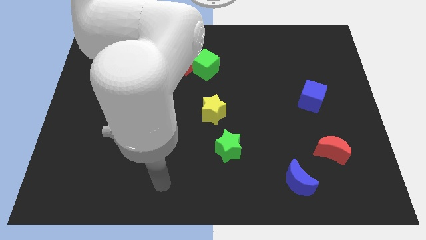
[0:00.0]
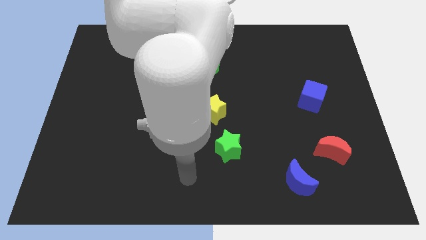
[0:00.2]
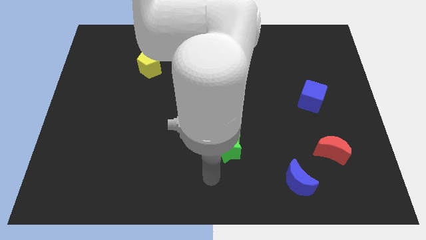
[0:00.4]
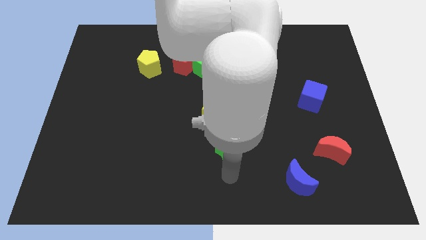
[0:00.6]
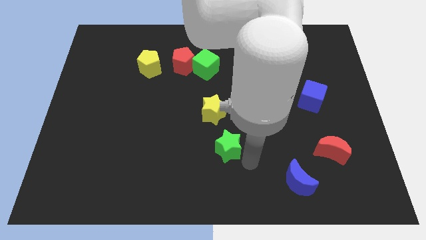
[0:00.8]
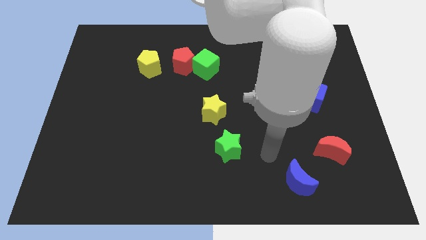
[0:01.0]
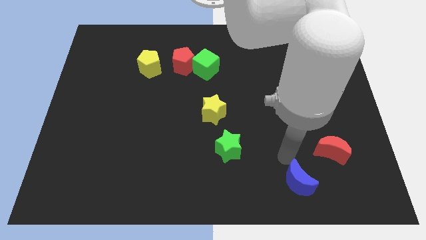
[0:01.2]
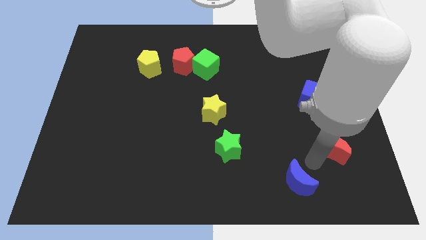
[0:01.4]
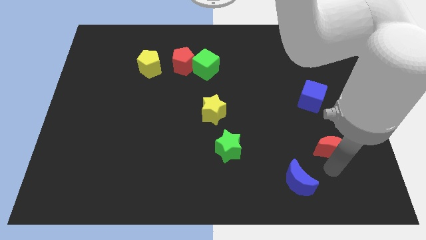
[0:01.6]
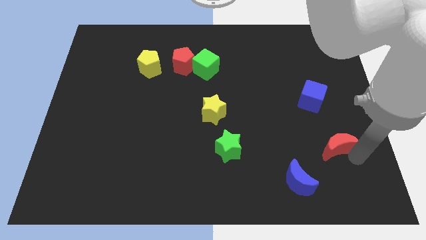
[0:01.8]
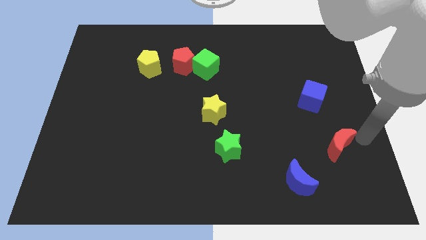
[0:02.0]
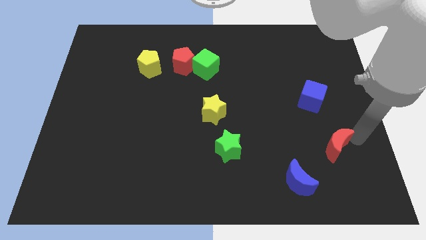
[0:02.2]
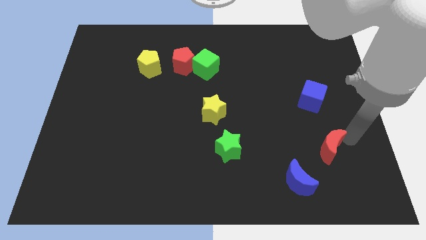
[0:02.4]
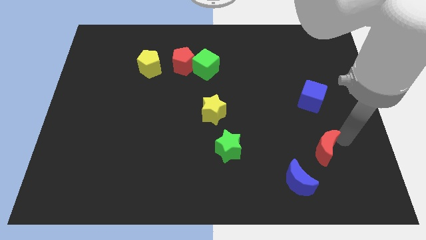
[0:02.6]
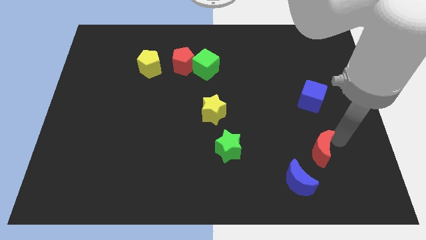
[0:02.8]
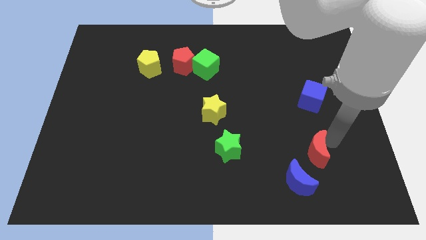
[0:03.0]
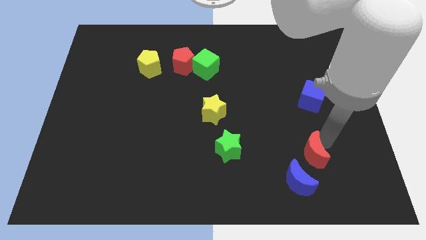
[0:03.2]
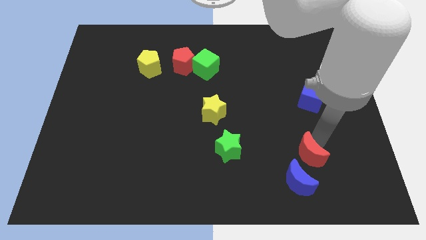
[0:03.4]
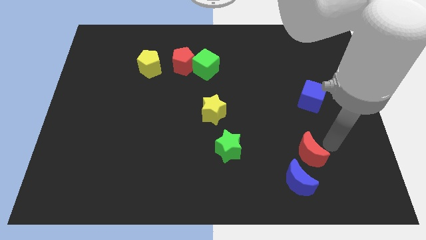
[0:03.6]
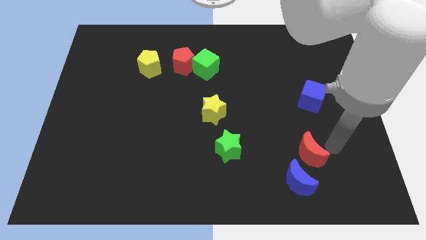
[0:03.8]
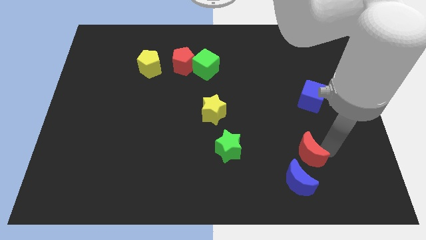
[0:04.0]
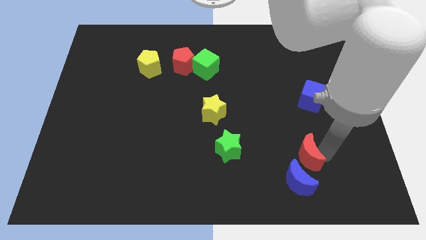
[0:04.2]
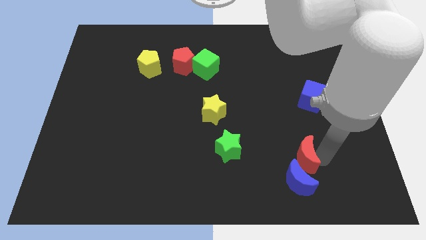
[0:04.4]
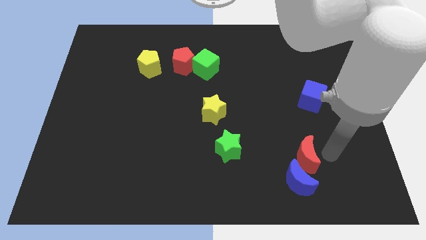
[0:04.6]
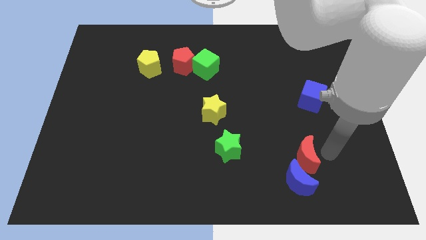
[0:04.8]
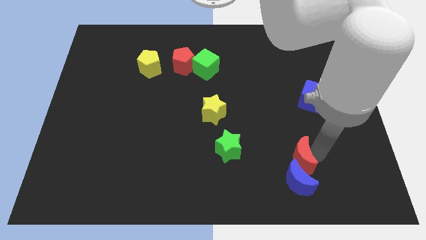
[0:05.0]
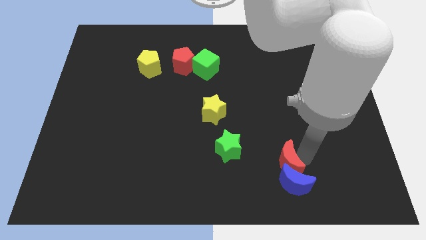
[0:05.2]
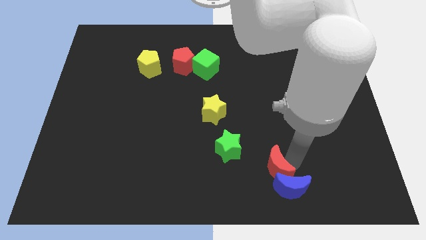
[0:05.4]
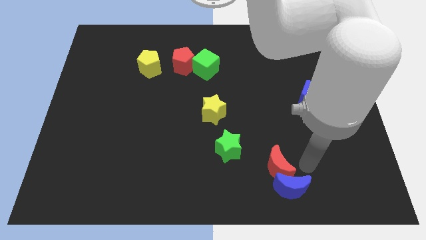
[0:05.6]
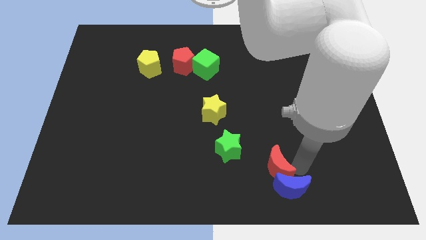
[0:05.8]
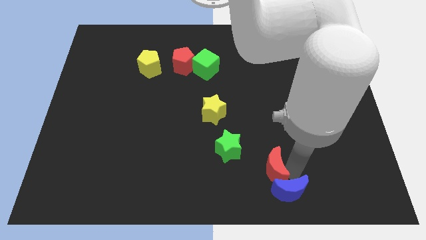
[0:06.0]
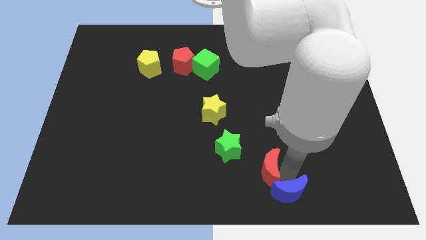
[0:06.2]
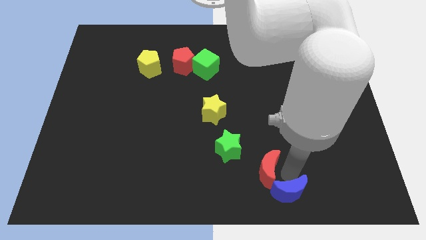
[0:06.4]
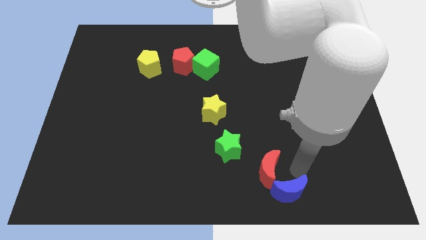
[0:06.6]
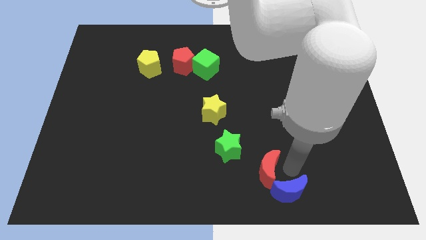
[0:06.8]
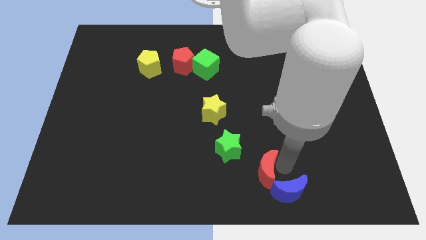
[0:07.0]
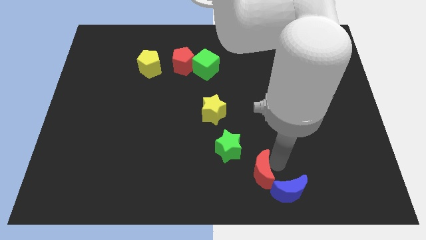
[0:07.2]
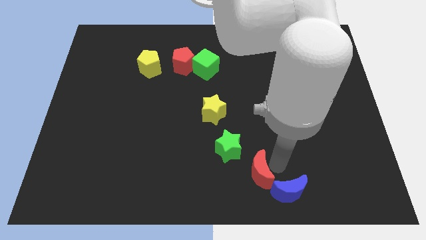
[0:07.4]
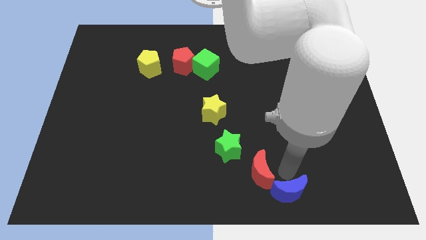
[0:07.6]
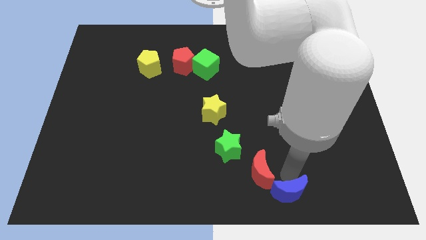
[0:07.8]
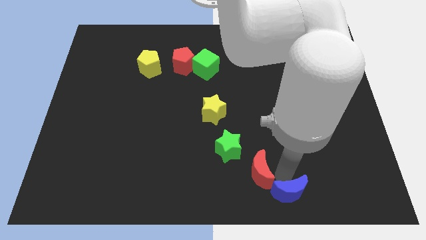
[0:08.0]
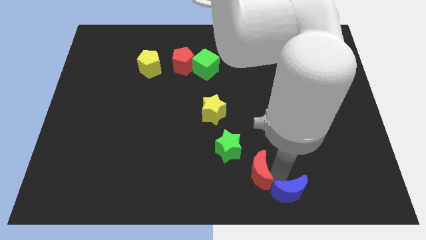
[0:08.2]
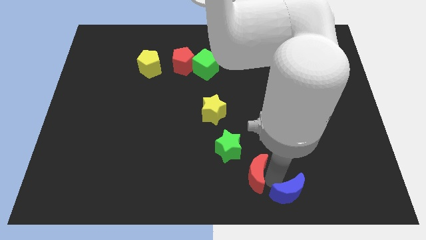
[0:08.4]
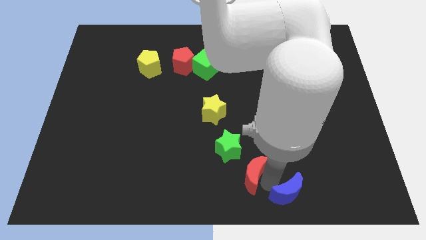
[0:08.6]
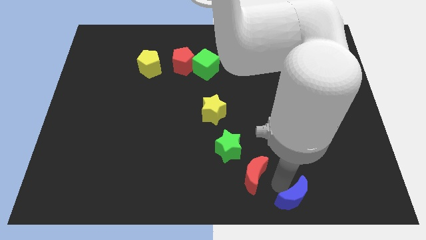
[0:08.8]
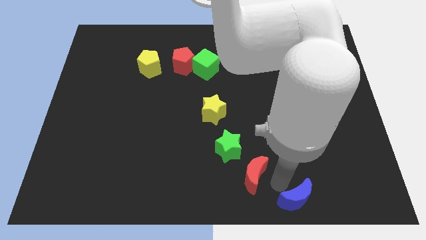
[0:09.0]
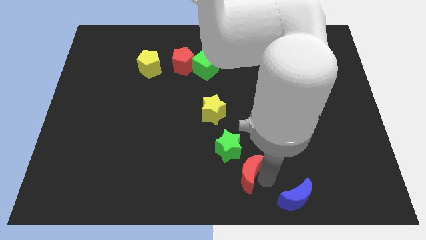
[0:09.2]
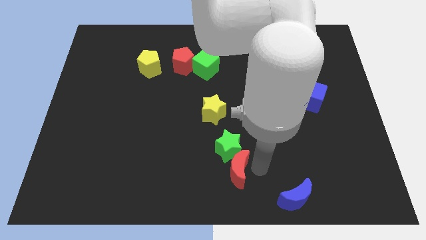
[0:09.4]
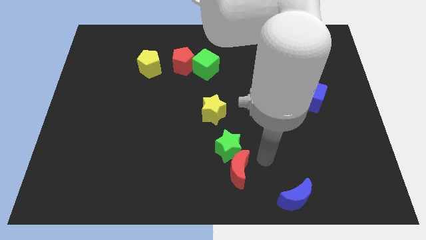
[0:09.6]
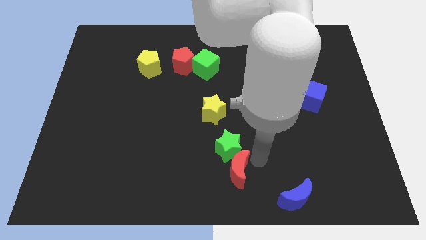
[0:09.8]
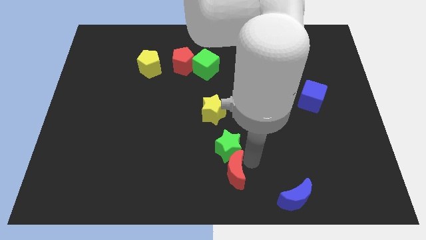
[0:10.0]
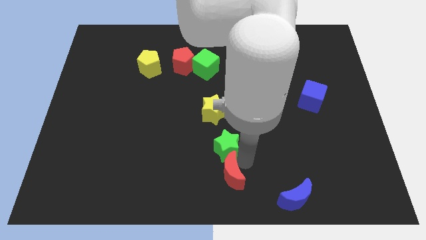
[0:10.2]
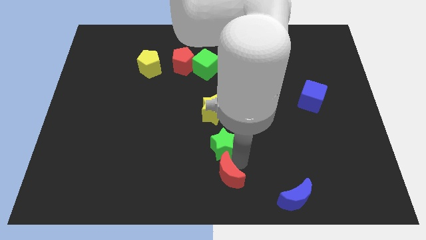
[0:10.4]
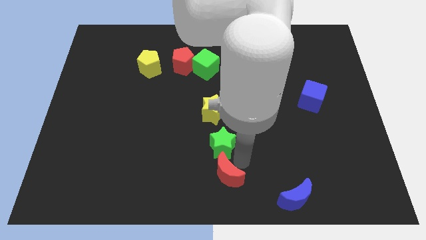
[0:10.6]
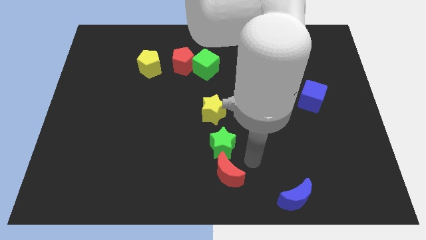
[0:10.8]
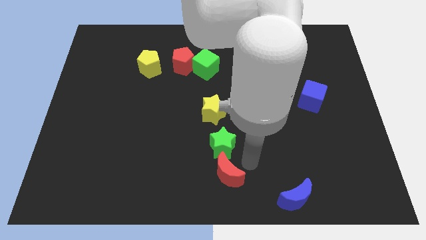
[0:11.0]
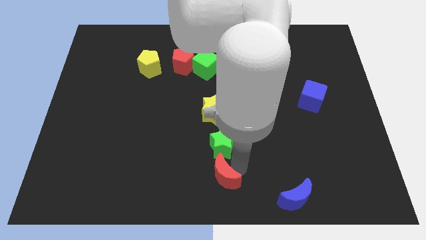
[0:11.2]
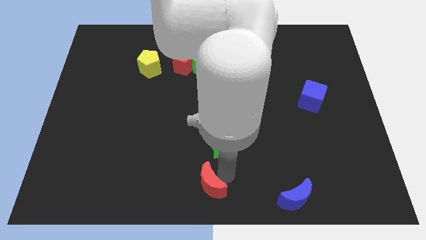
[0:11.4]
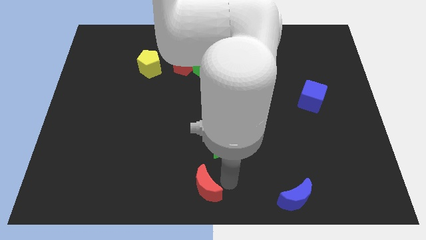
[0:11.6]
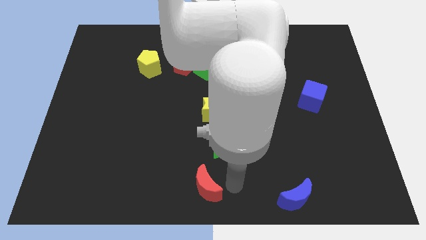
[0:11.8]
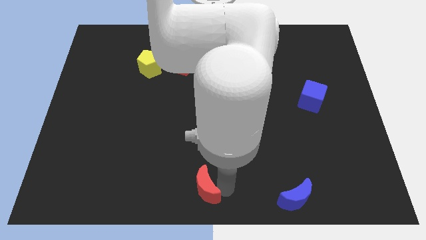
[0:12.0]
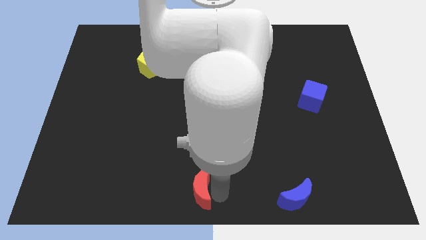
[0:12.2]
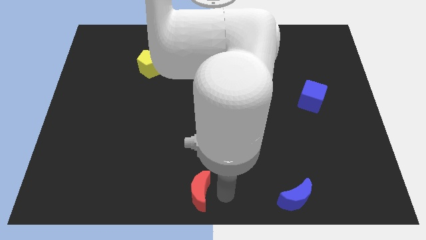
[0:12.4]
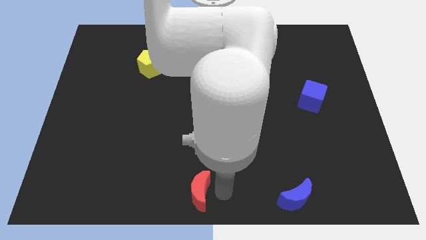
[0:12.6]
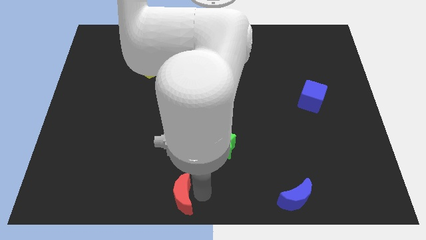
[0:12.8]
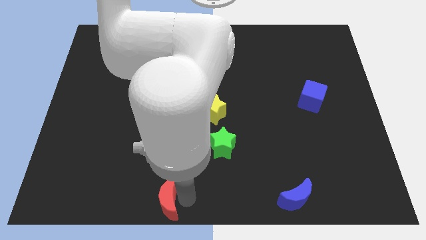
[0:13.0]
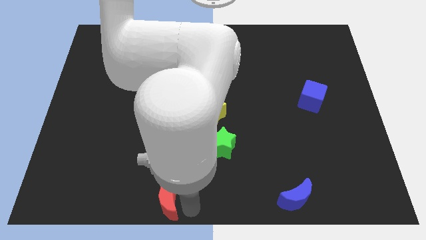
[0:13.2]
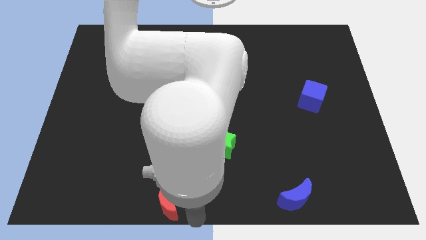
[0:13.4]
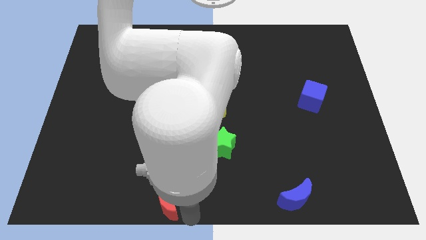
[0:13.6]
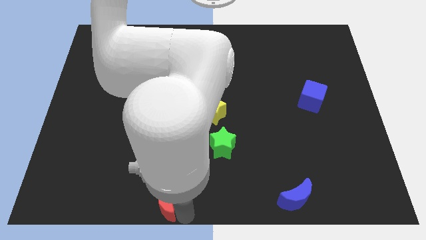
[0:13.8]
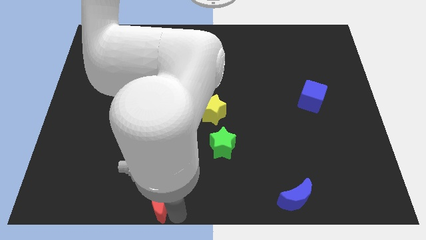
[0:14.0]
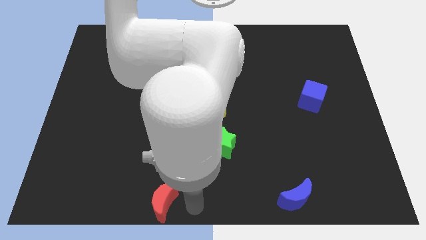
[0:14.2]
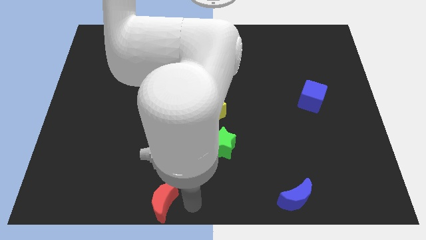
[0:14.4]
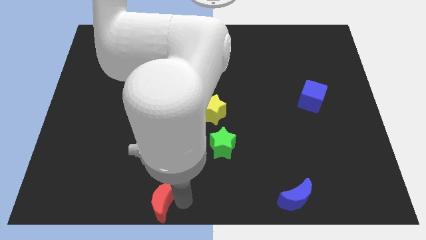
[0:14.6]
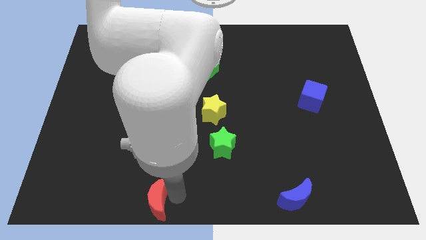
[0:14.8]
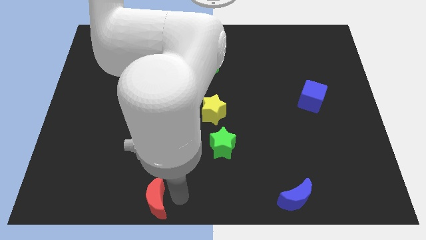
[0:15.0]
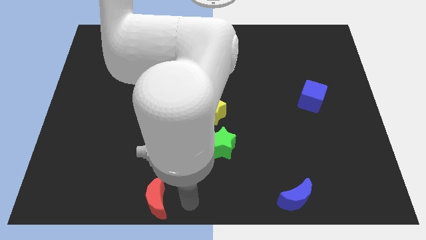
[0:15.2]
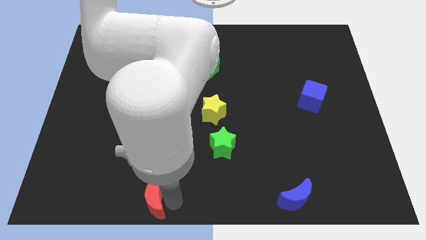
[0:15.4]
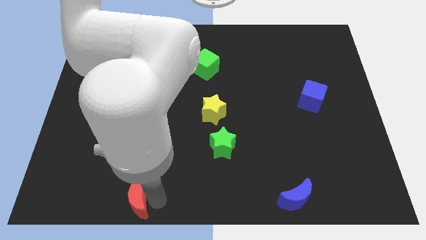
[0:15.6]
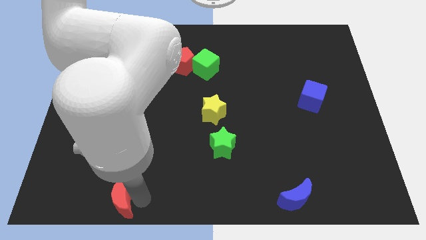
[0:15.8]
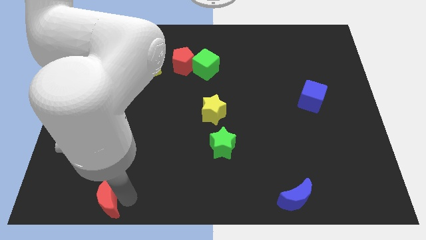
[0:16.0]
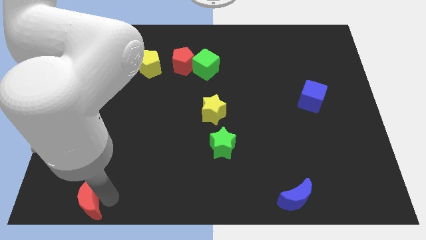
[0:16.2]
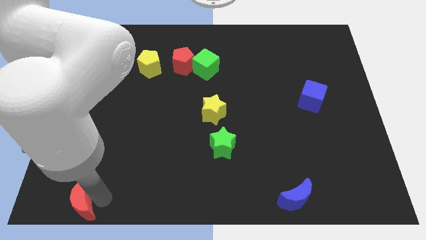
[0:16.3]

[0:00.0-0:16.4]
move the red moon to the lower left corner
